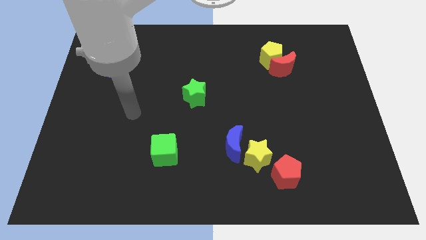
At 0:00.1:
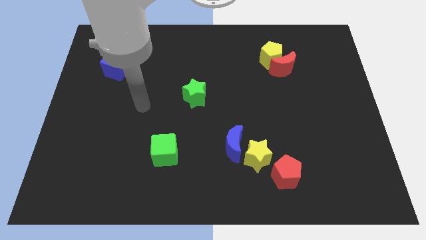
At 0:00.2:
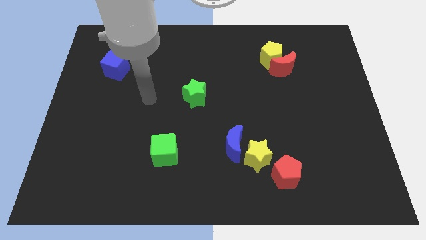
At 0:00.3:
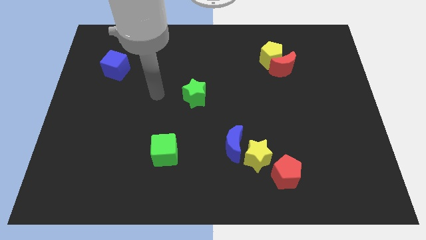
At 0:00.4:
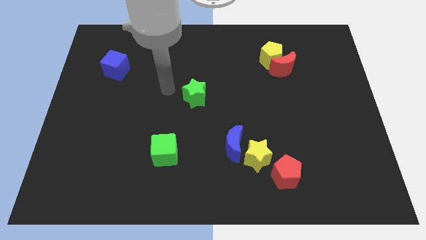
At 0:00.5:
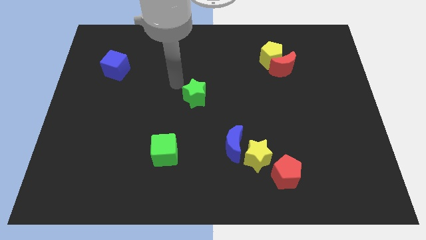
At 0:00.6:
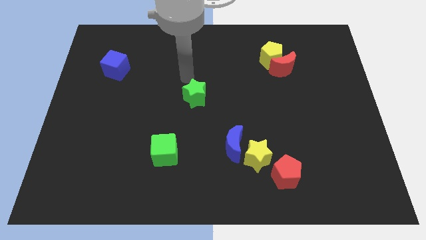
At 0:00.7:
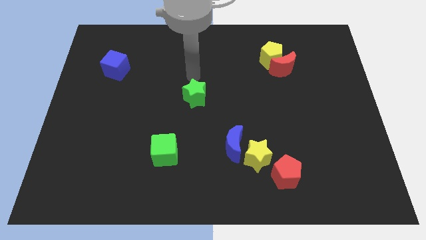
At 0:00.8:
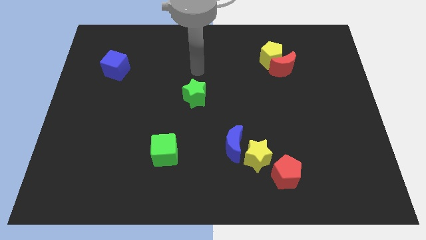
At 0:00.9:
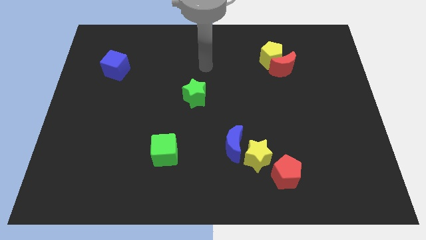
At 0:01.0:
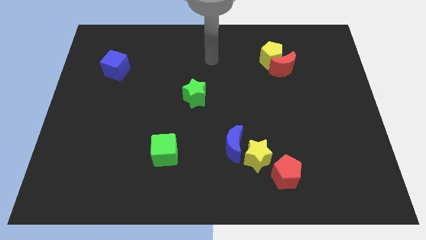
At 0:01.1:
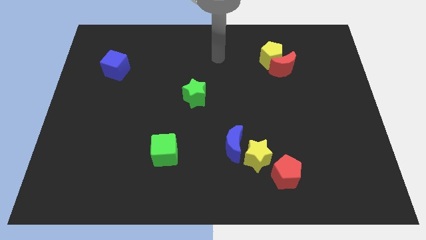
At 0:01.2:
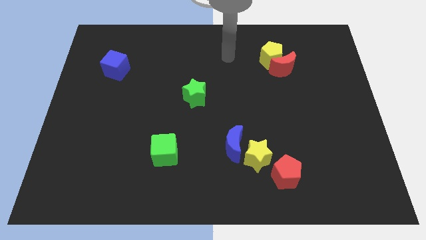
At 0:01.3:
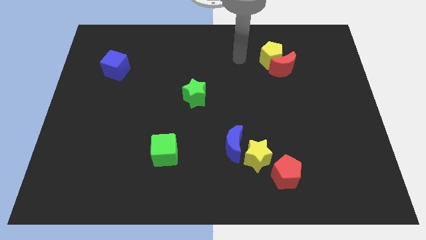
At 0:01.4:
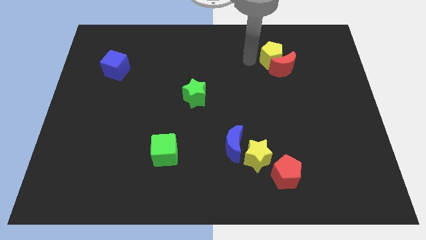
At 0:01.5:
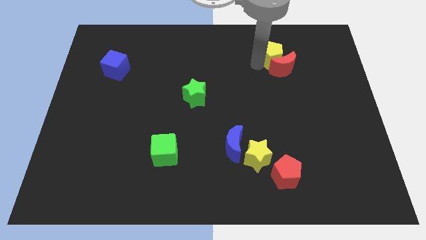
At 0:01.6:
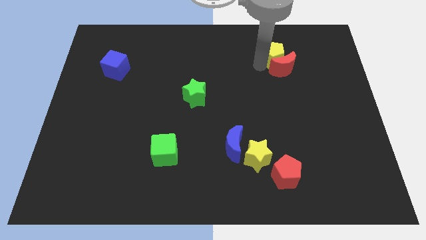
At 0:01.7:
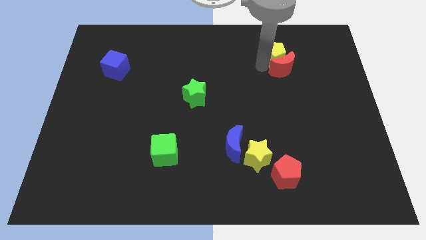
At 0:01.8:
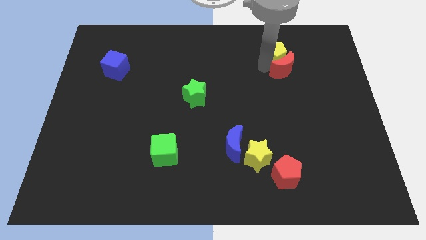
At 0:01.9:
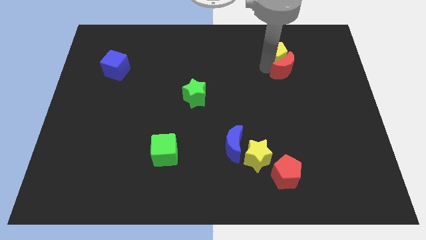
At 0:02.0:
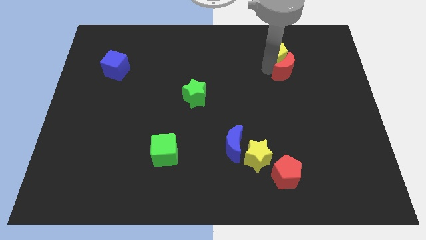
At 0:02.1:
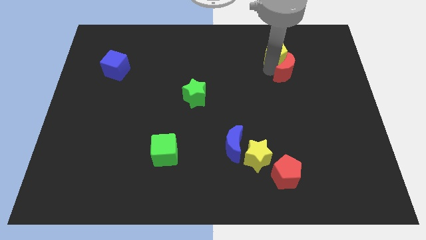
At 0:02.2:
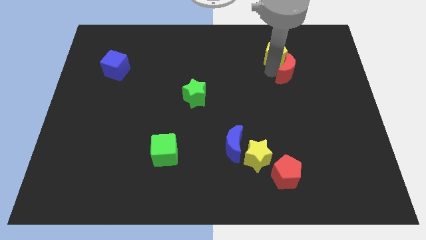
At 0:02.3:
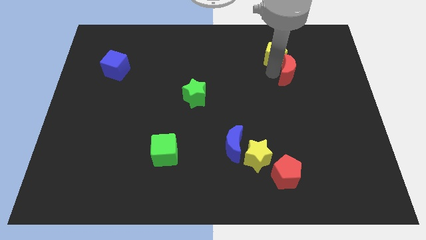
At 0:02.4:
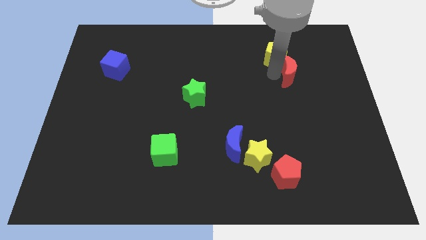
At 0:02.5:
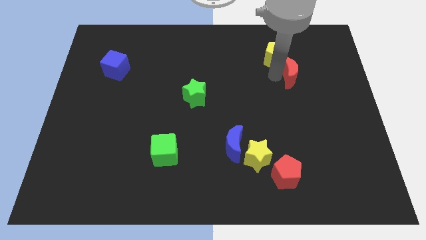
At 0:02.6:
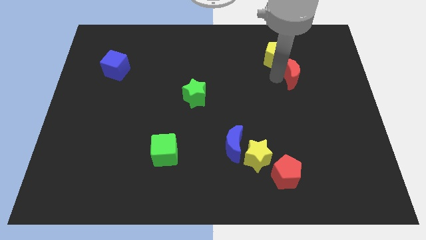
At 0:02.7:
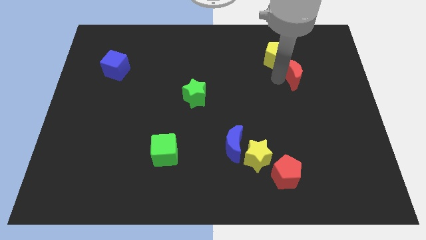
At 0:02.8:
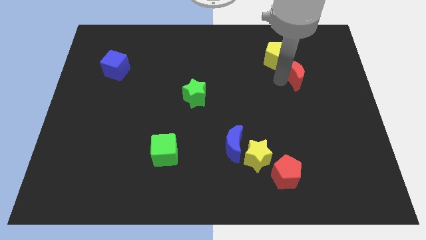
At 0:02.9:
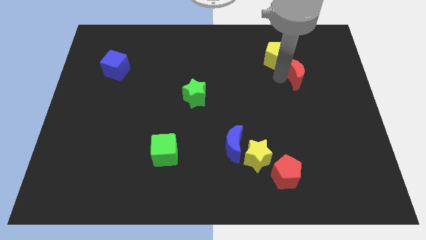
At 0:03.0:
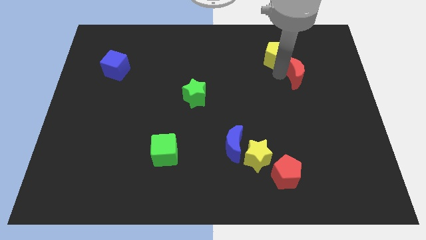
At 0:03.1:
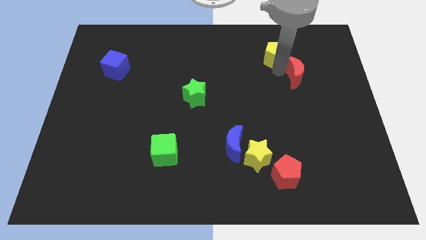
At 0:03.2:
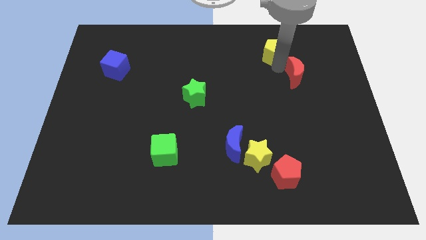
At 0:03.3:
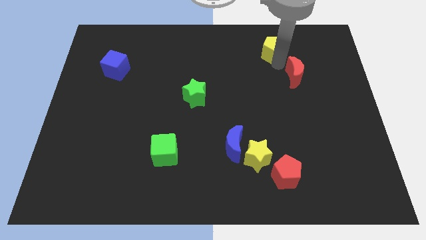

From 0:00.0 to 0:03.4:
move the red moon away from the yellow pentagon

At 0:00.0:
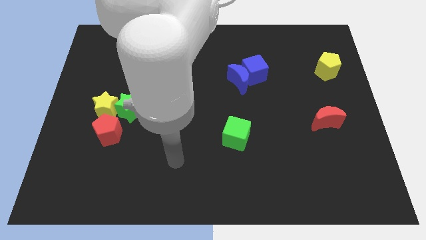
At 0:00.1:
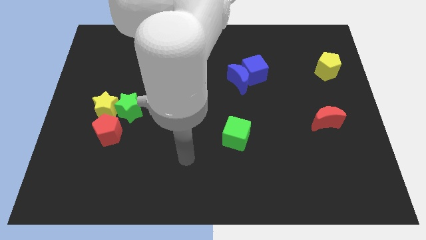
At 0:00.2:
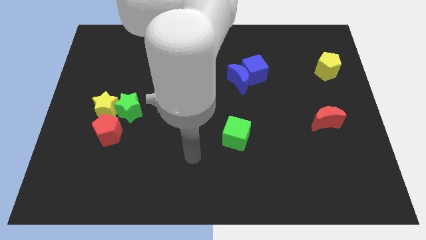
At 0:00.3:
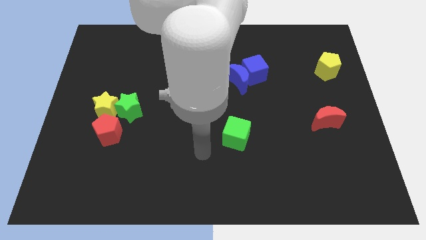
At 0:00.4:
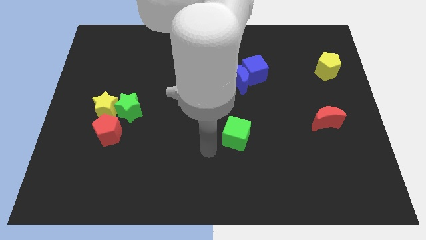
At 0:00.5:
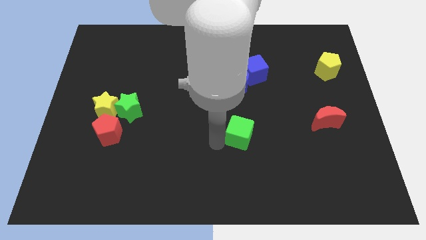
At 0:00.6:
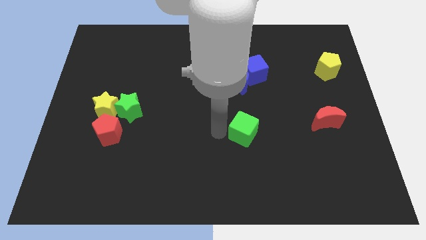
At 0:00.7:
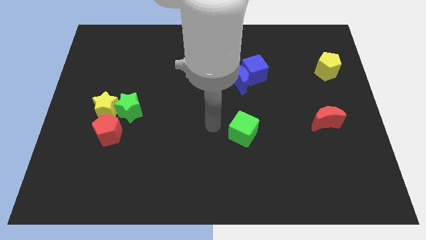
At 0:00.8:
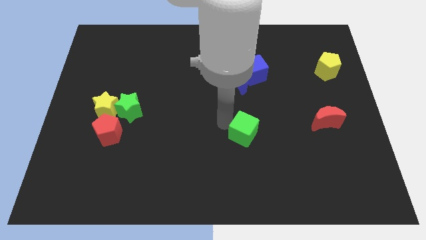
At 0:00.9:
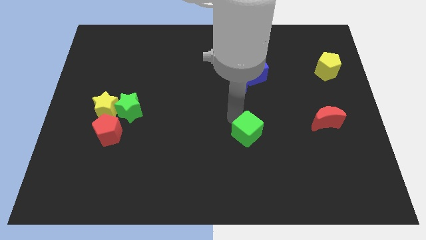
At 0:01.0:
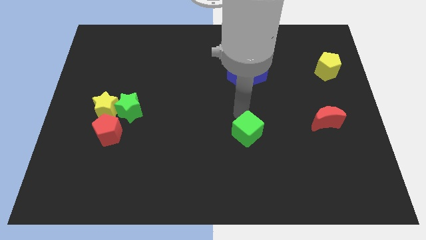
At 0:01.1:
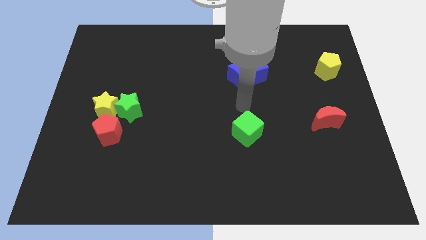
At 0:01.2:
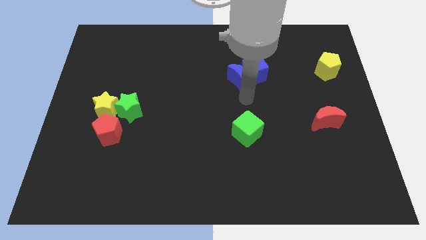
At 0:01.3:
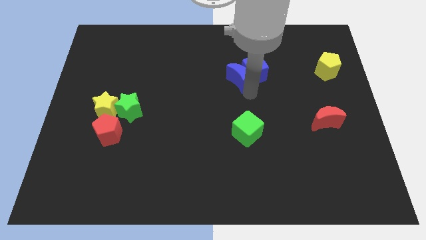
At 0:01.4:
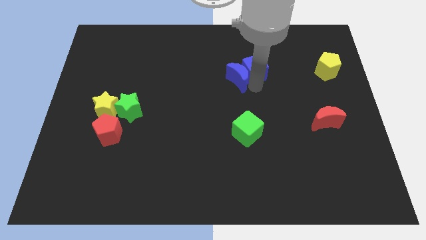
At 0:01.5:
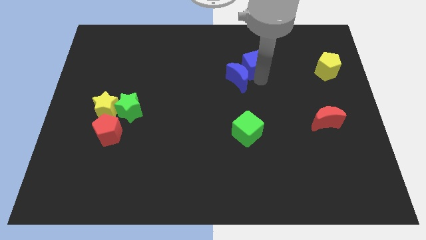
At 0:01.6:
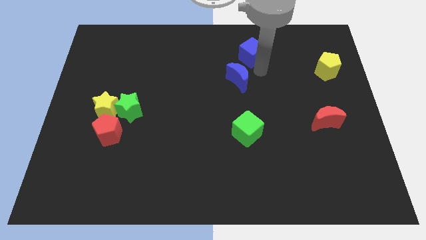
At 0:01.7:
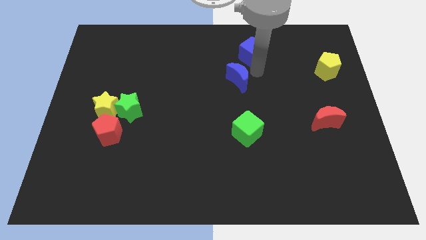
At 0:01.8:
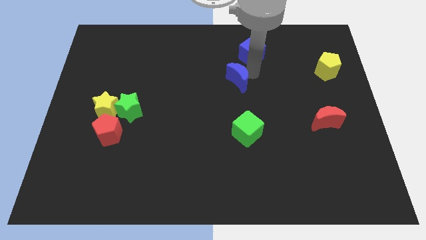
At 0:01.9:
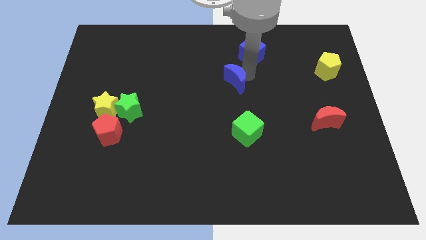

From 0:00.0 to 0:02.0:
pull the blue moon apart from the blue cube

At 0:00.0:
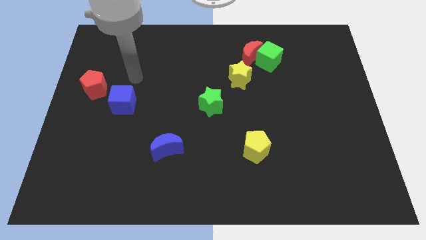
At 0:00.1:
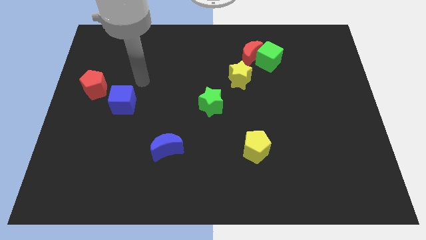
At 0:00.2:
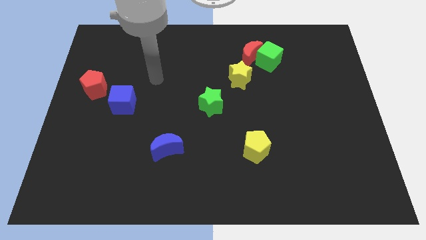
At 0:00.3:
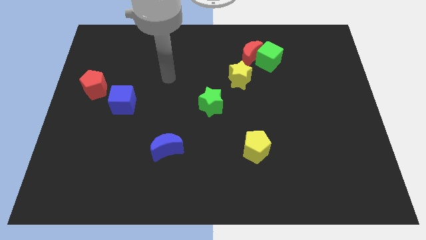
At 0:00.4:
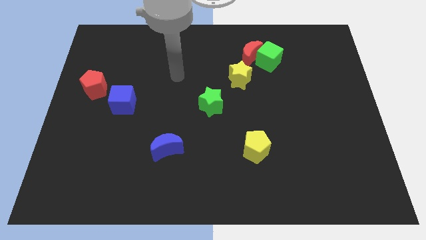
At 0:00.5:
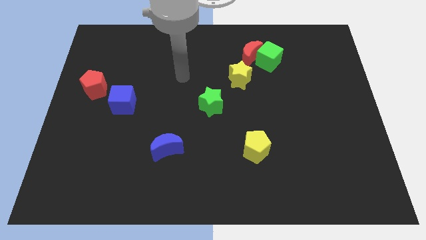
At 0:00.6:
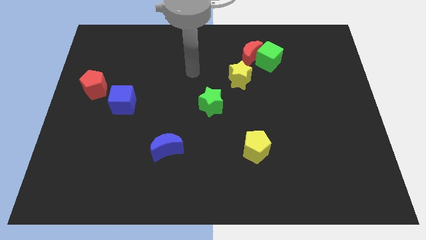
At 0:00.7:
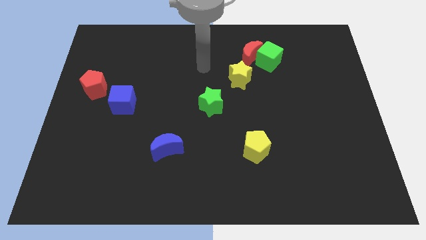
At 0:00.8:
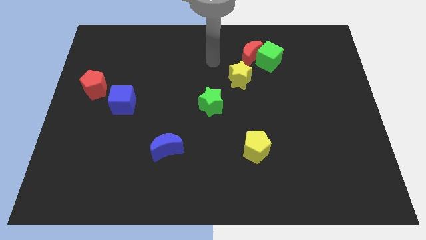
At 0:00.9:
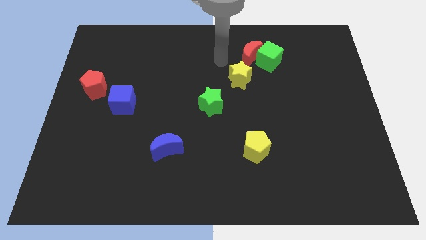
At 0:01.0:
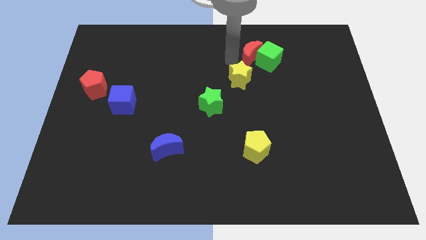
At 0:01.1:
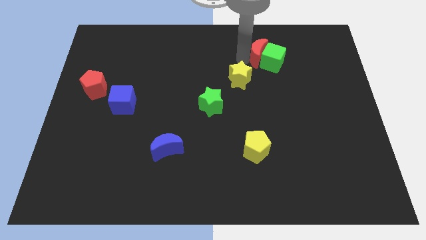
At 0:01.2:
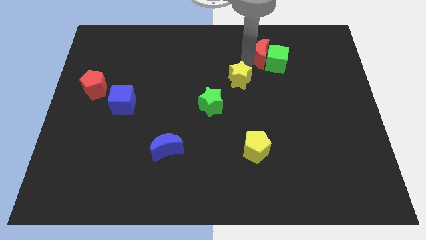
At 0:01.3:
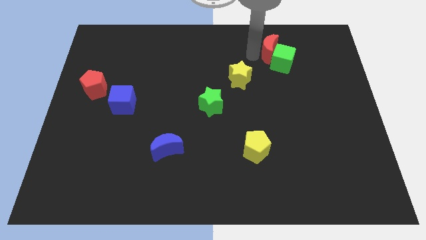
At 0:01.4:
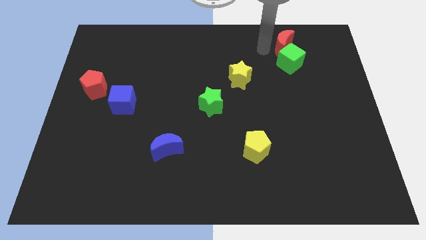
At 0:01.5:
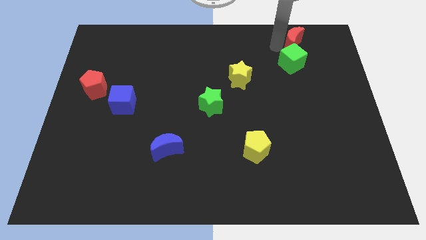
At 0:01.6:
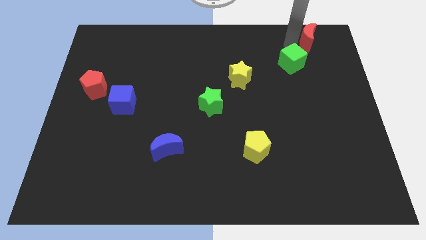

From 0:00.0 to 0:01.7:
pull the green cube apart from the red moon

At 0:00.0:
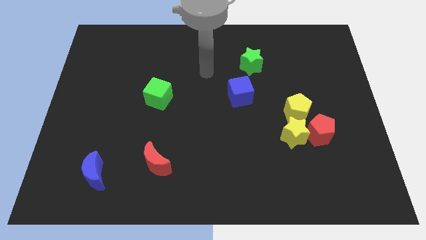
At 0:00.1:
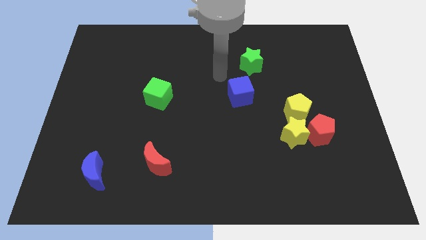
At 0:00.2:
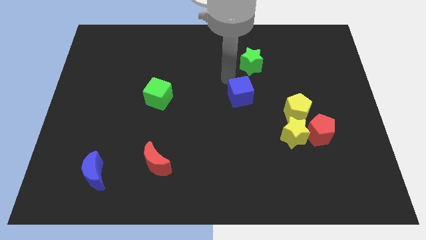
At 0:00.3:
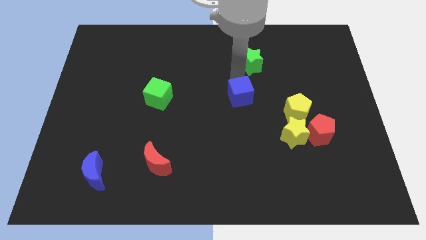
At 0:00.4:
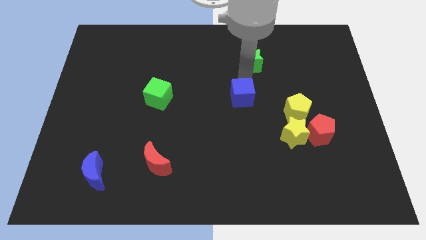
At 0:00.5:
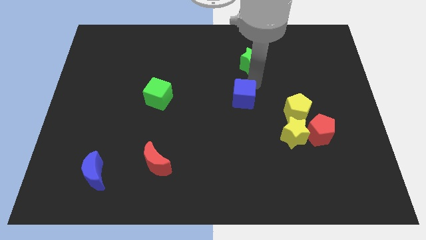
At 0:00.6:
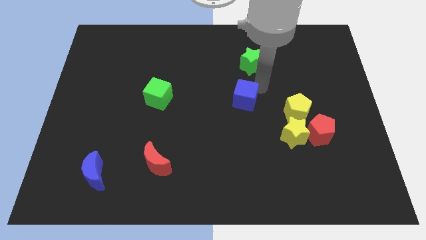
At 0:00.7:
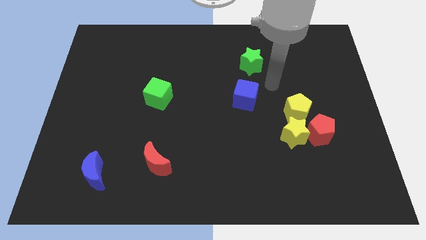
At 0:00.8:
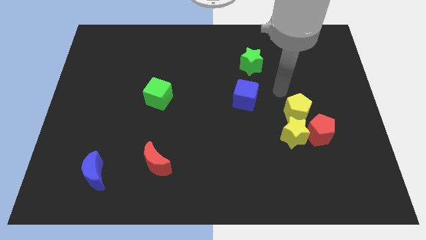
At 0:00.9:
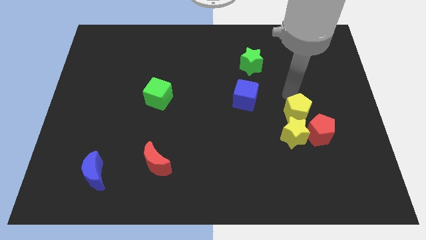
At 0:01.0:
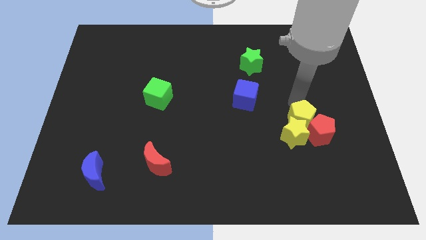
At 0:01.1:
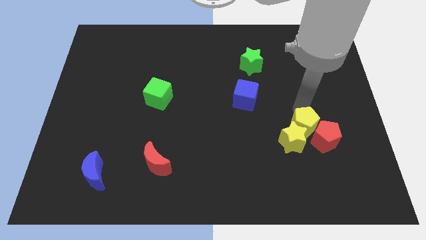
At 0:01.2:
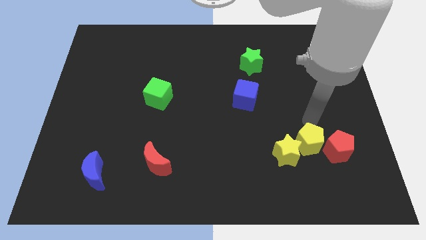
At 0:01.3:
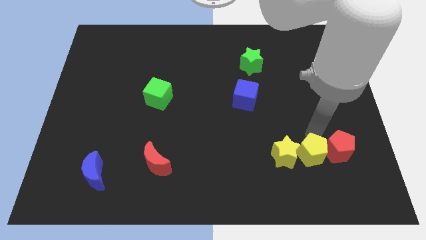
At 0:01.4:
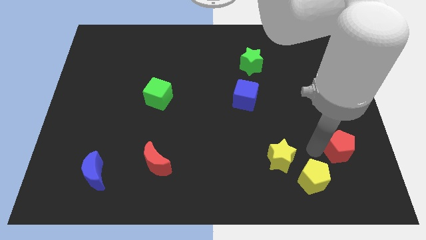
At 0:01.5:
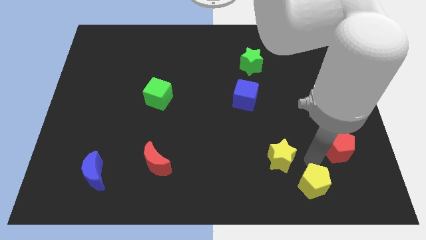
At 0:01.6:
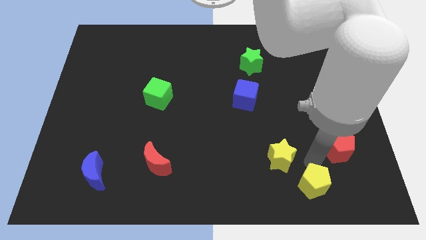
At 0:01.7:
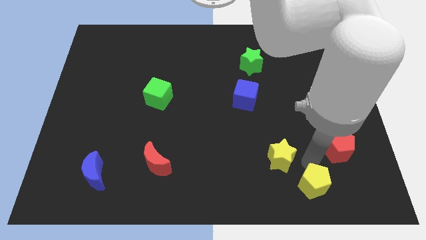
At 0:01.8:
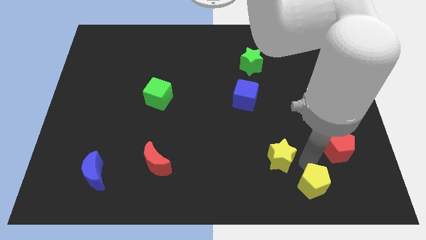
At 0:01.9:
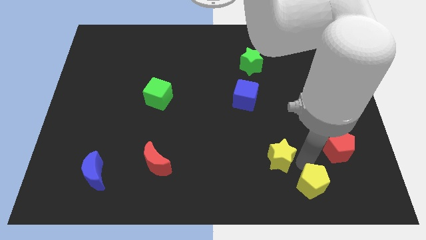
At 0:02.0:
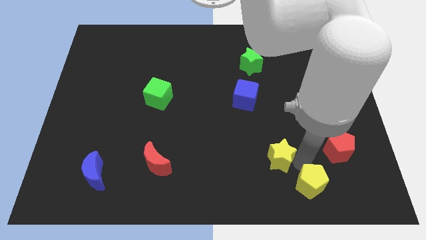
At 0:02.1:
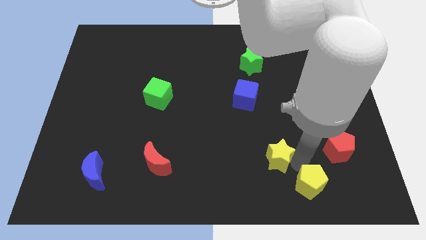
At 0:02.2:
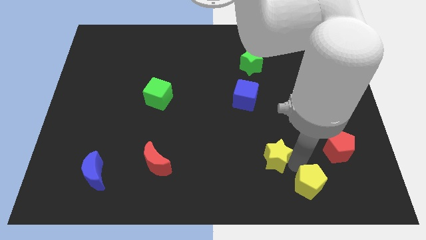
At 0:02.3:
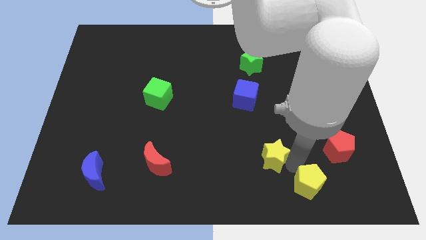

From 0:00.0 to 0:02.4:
separate the yellow star from the red pentagon and yellow pentagon
